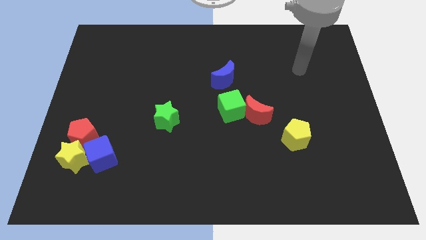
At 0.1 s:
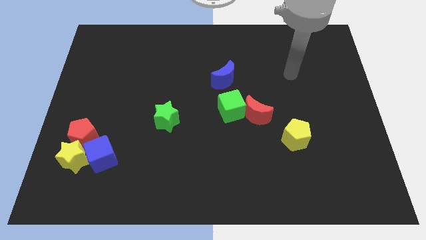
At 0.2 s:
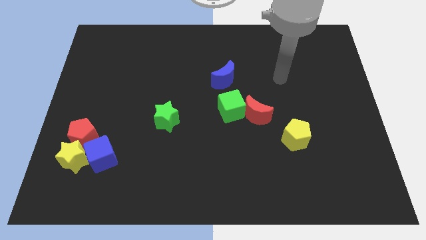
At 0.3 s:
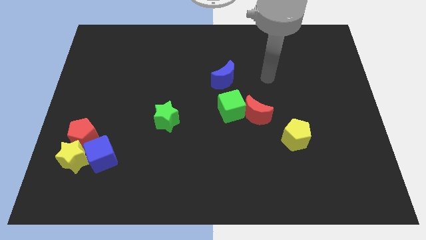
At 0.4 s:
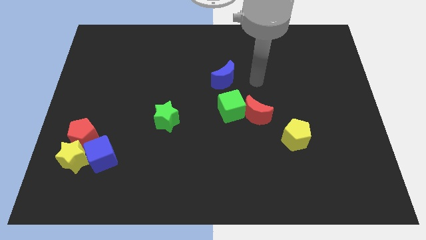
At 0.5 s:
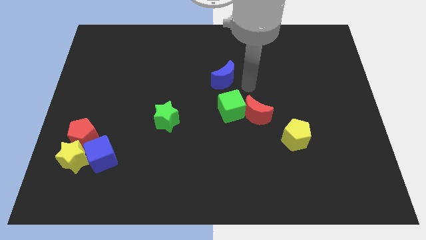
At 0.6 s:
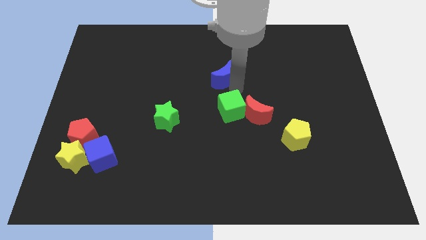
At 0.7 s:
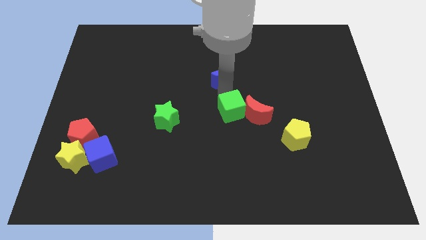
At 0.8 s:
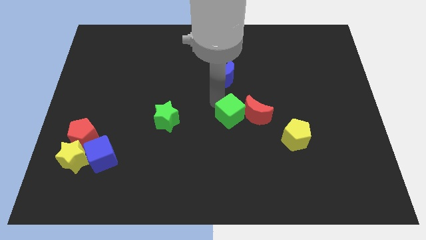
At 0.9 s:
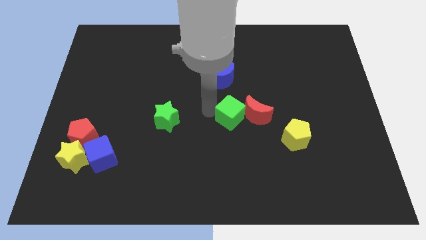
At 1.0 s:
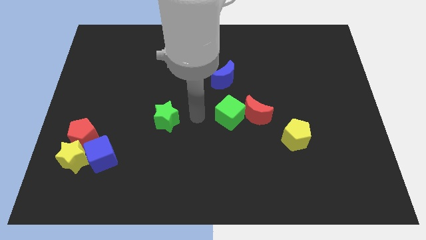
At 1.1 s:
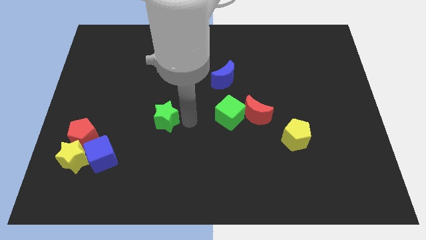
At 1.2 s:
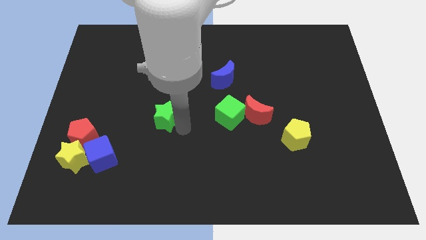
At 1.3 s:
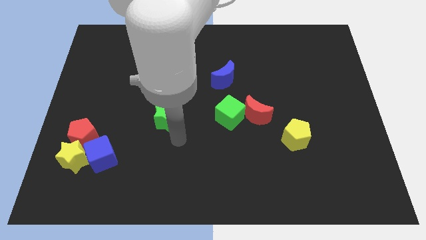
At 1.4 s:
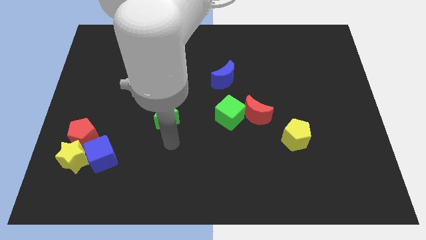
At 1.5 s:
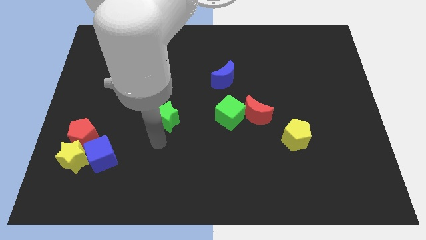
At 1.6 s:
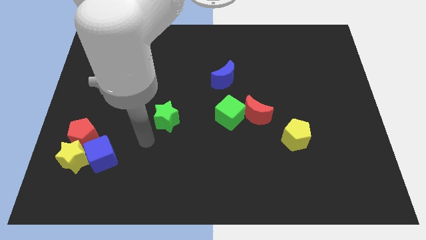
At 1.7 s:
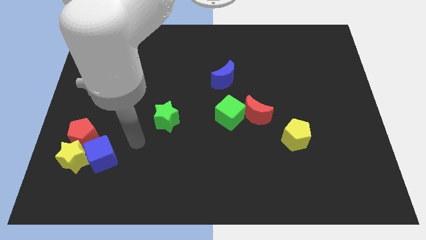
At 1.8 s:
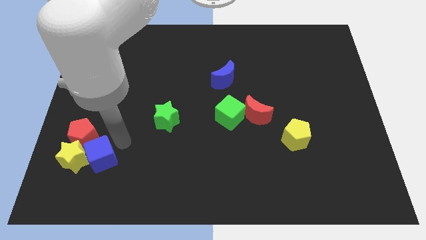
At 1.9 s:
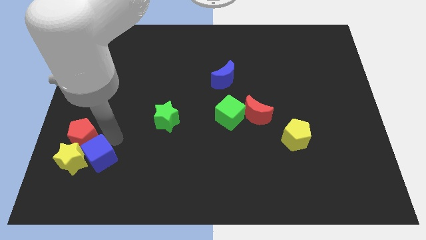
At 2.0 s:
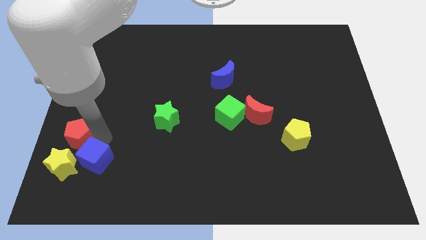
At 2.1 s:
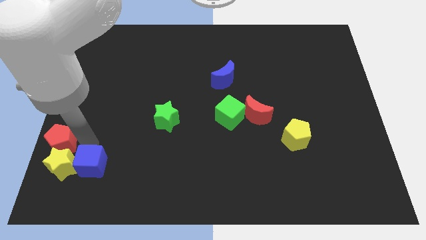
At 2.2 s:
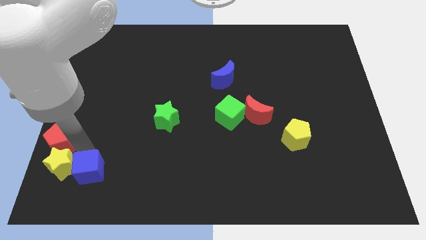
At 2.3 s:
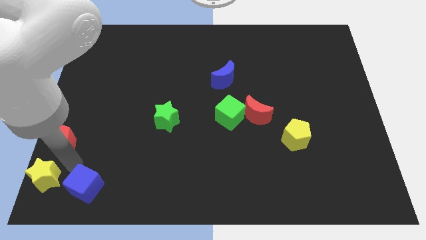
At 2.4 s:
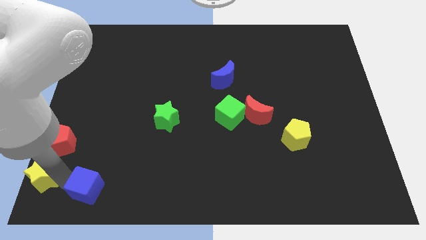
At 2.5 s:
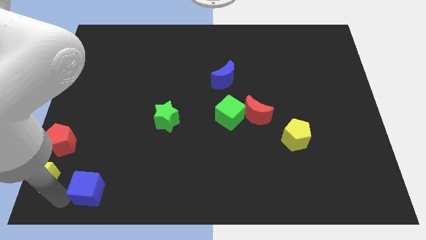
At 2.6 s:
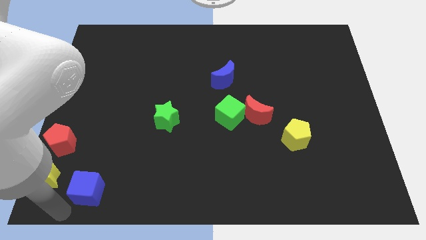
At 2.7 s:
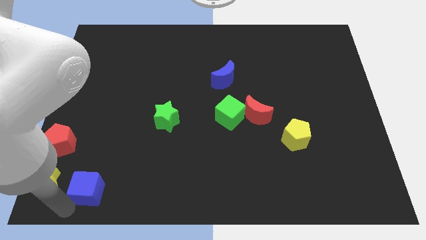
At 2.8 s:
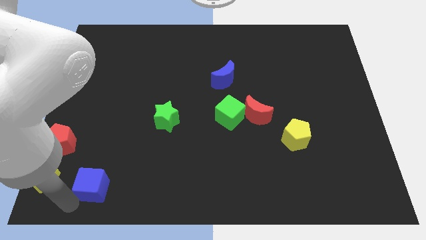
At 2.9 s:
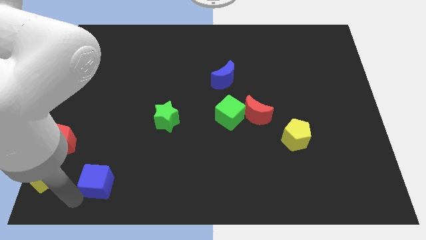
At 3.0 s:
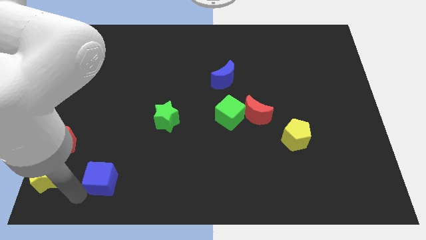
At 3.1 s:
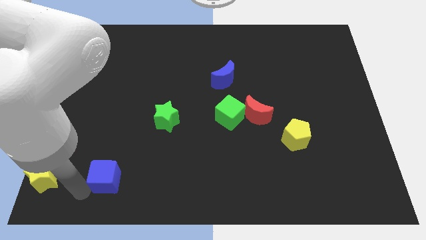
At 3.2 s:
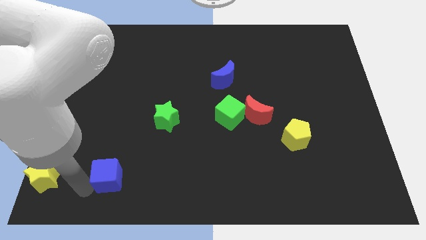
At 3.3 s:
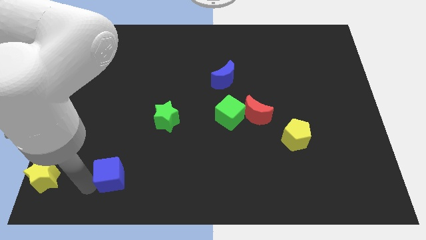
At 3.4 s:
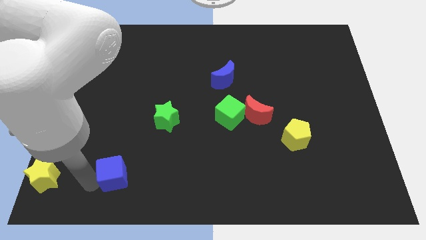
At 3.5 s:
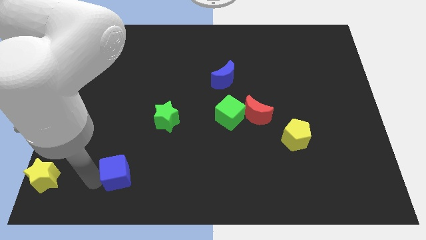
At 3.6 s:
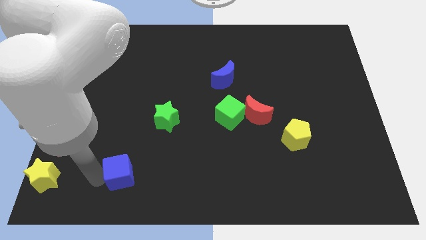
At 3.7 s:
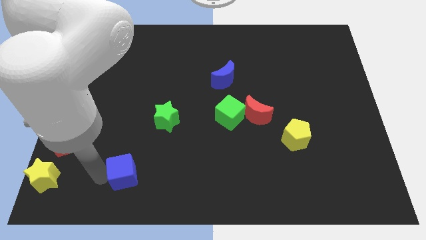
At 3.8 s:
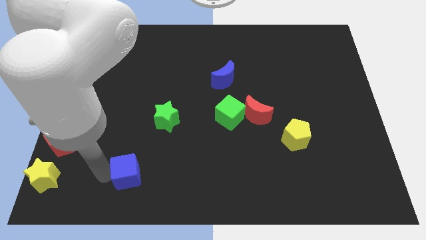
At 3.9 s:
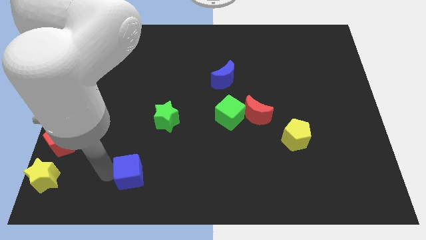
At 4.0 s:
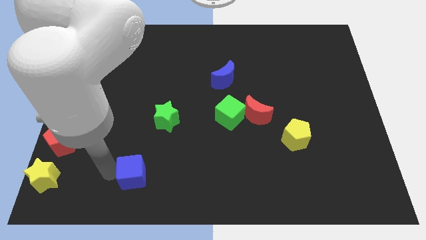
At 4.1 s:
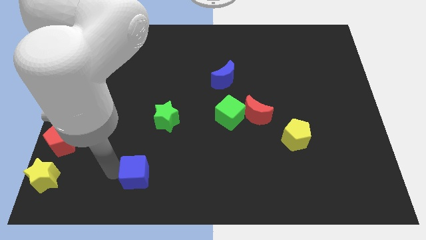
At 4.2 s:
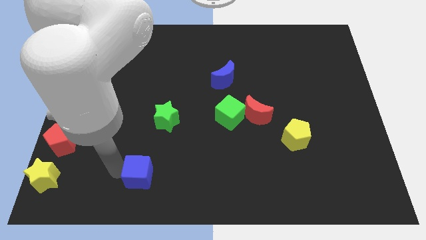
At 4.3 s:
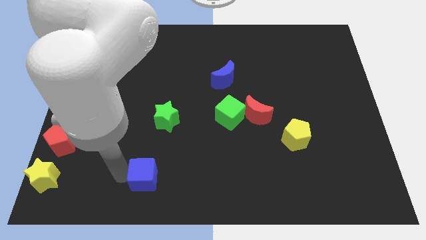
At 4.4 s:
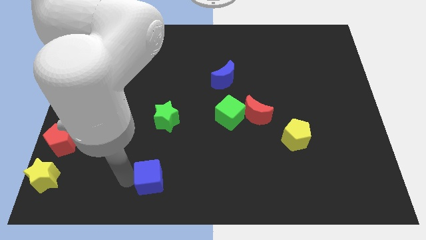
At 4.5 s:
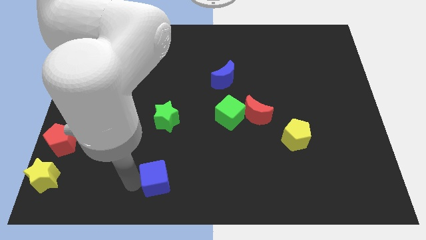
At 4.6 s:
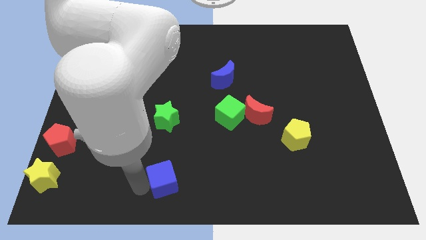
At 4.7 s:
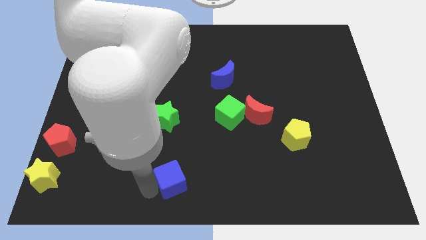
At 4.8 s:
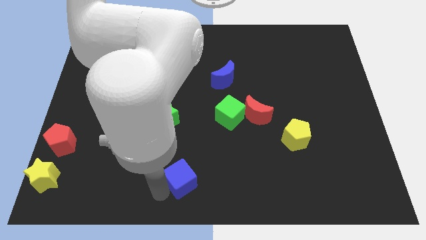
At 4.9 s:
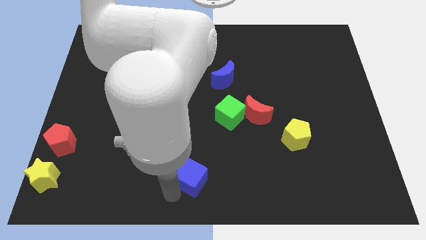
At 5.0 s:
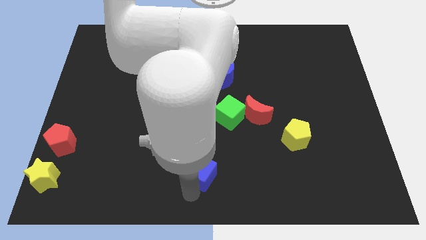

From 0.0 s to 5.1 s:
move the blue cube right

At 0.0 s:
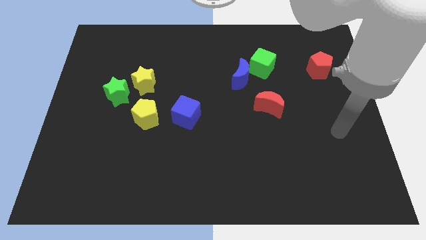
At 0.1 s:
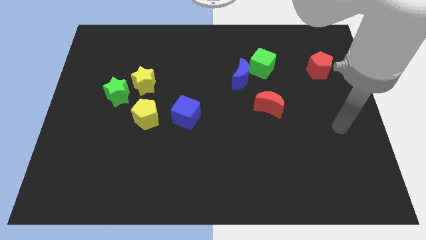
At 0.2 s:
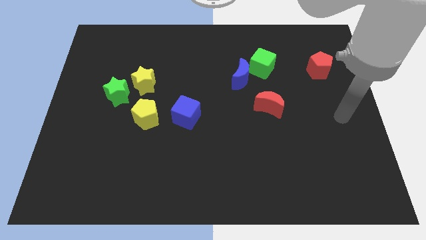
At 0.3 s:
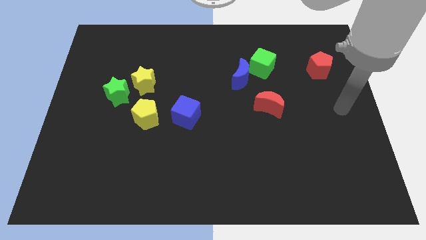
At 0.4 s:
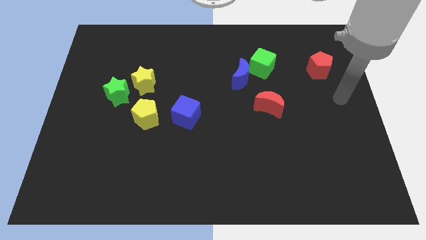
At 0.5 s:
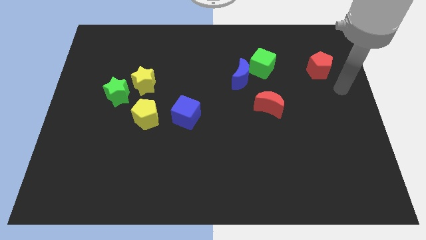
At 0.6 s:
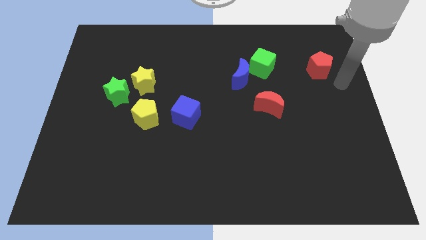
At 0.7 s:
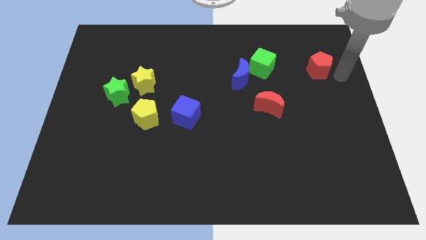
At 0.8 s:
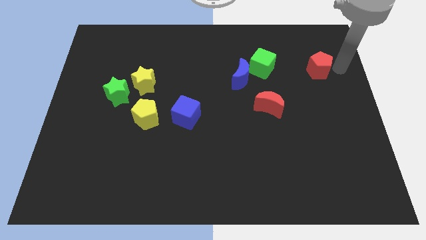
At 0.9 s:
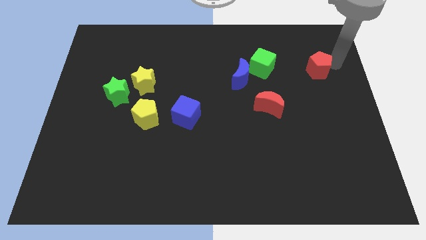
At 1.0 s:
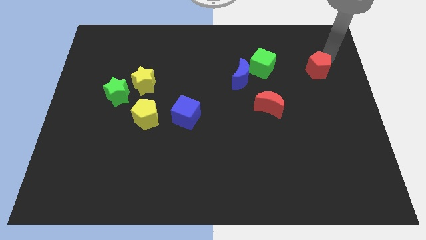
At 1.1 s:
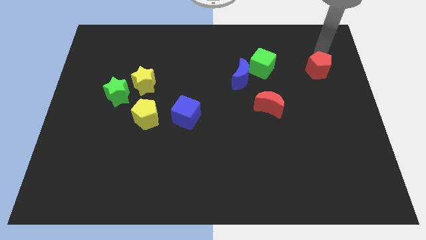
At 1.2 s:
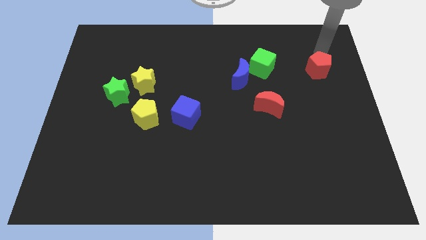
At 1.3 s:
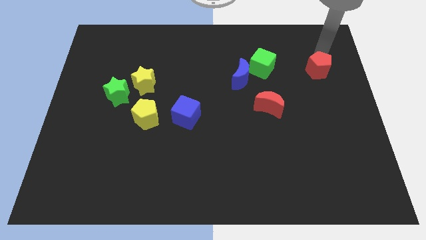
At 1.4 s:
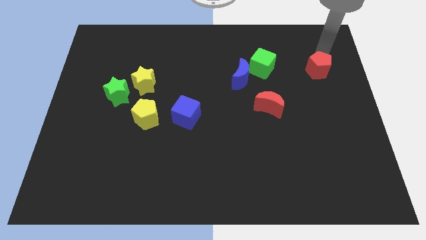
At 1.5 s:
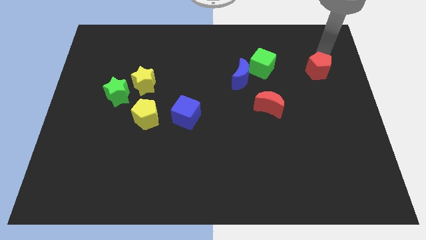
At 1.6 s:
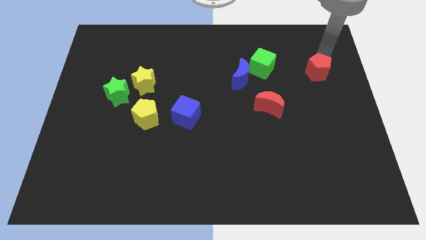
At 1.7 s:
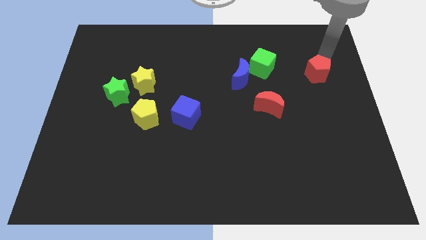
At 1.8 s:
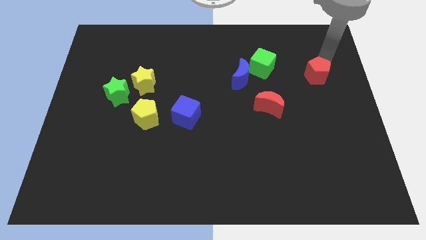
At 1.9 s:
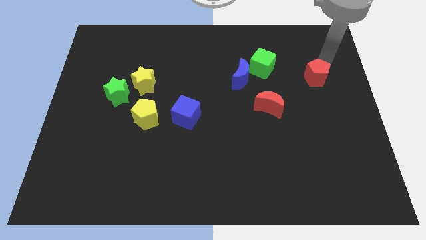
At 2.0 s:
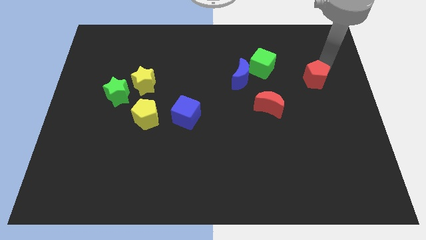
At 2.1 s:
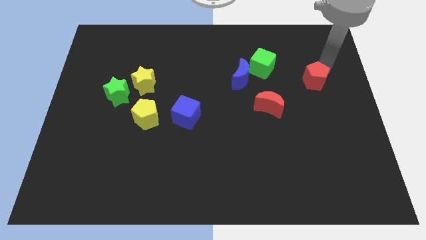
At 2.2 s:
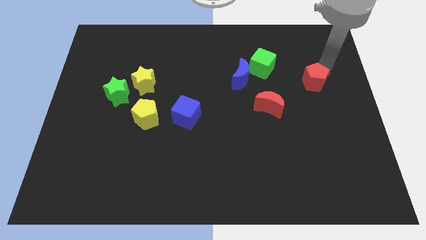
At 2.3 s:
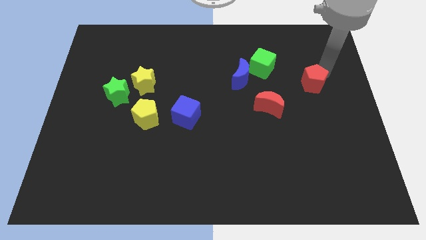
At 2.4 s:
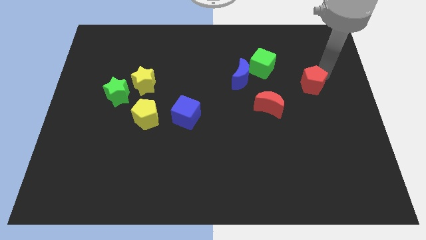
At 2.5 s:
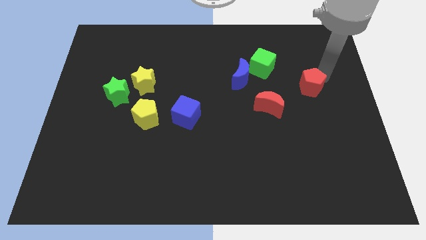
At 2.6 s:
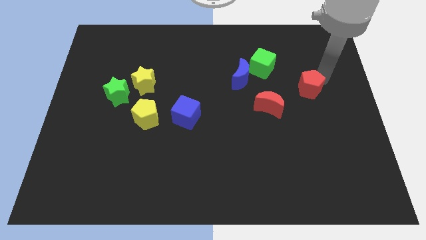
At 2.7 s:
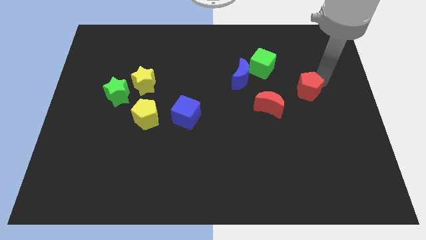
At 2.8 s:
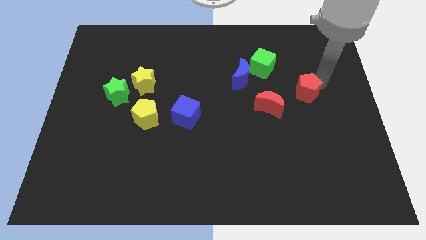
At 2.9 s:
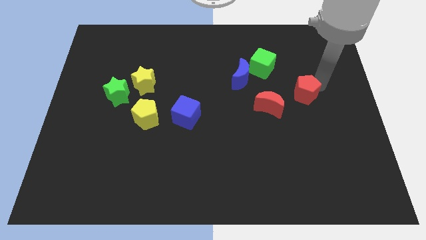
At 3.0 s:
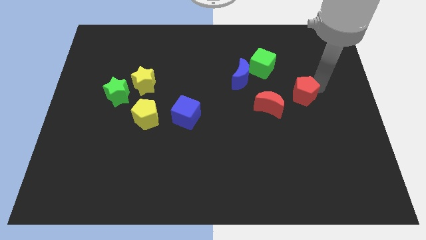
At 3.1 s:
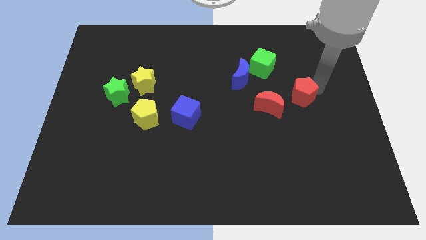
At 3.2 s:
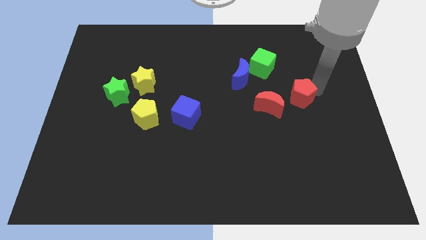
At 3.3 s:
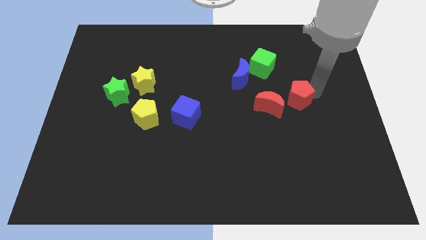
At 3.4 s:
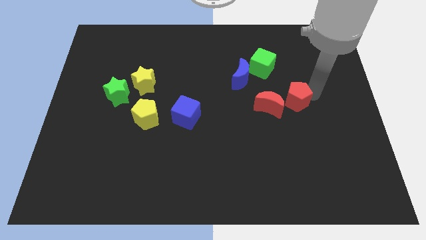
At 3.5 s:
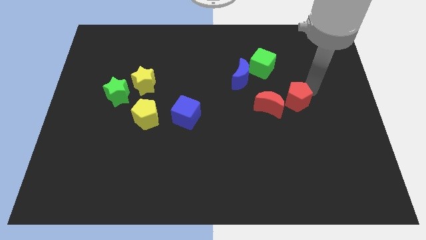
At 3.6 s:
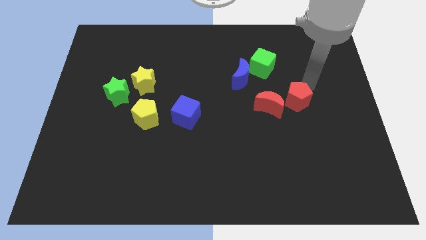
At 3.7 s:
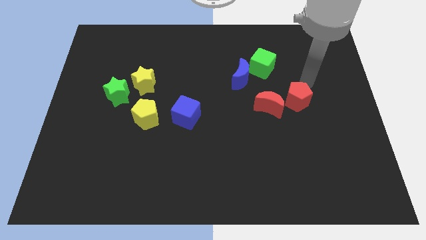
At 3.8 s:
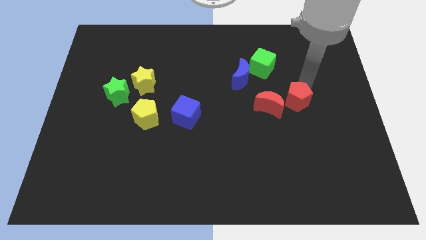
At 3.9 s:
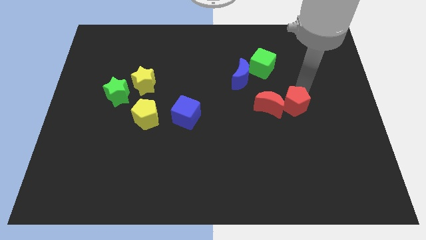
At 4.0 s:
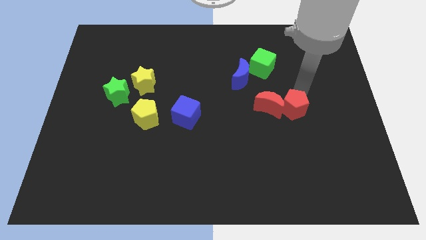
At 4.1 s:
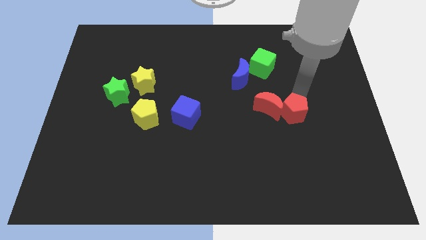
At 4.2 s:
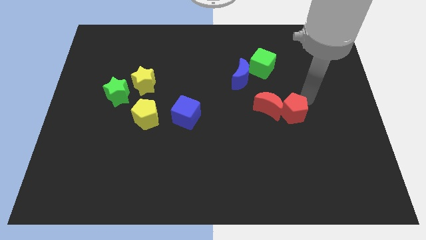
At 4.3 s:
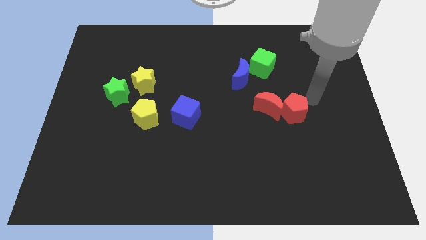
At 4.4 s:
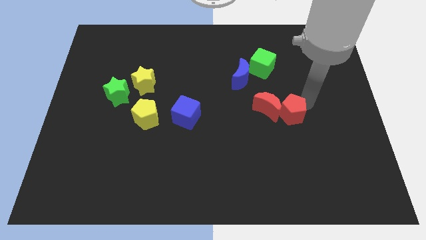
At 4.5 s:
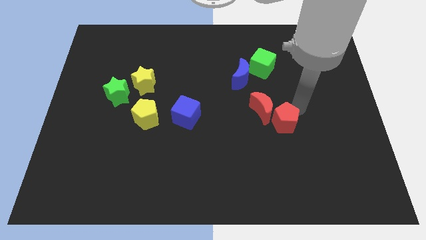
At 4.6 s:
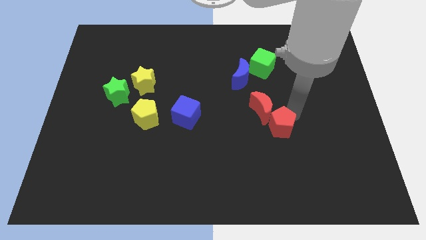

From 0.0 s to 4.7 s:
push the red pentagon diagonally downwards and to the left
